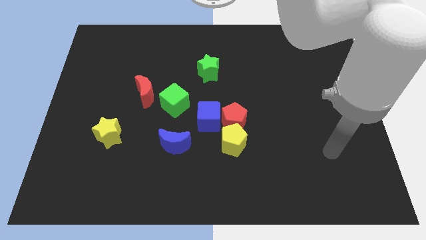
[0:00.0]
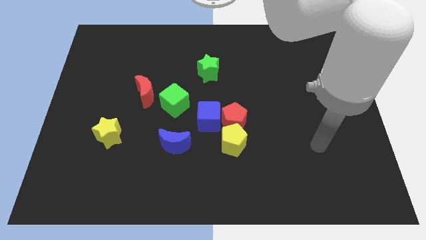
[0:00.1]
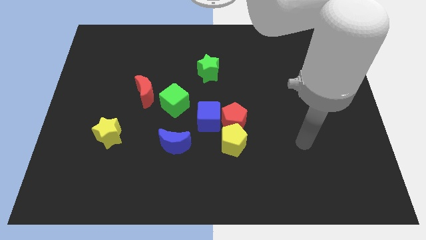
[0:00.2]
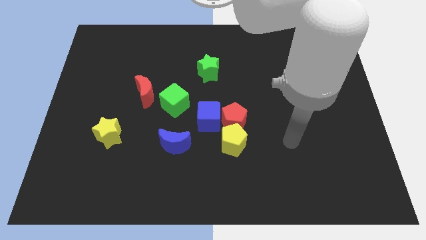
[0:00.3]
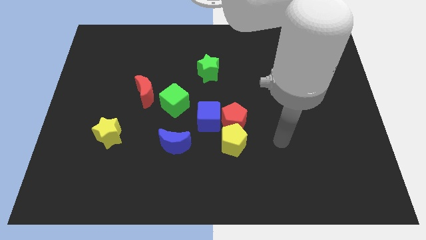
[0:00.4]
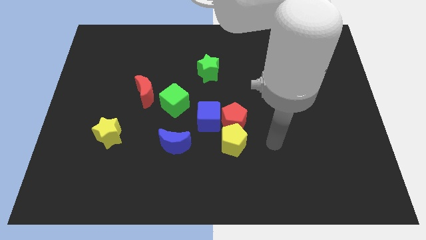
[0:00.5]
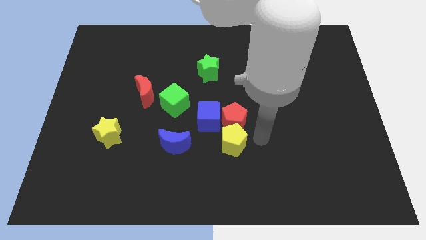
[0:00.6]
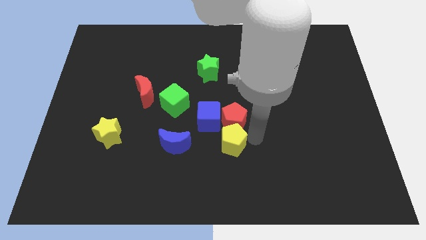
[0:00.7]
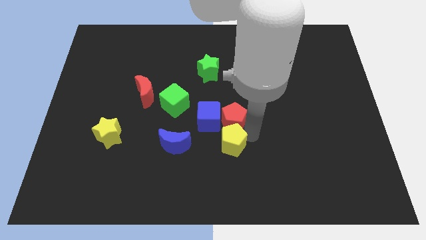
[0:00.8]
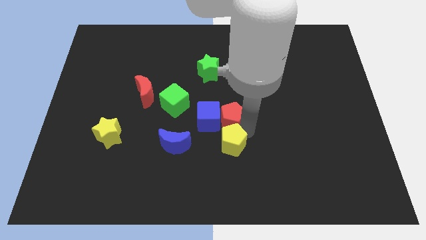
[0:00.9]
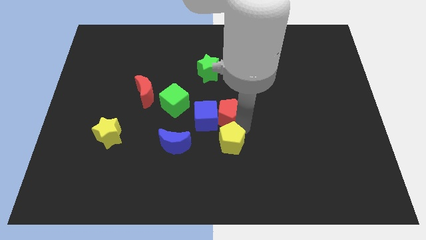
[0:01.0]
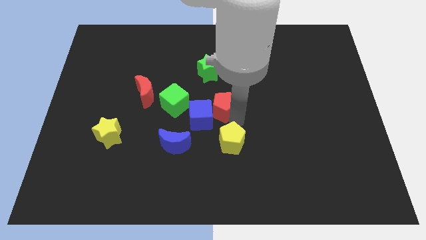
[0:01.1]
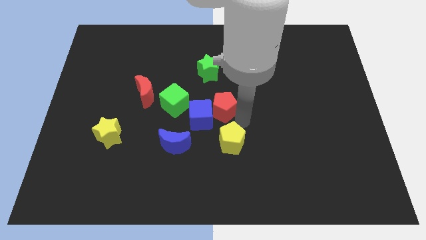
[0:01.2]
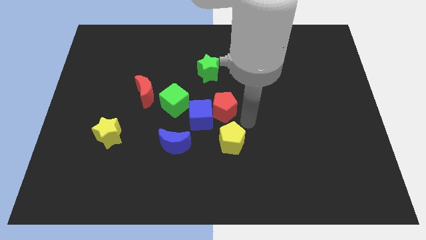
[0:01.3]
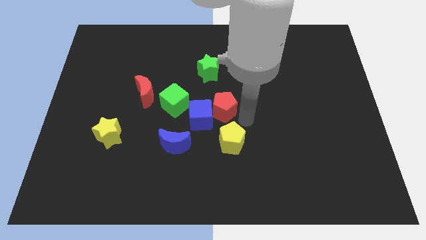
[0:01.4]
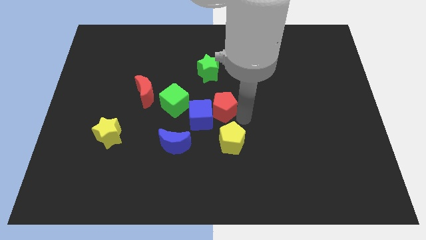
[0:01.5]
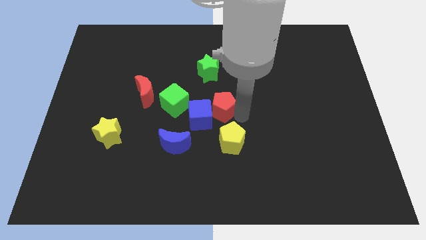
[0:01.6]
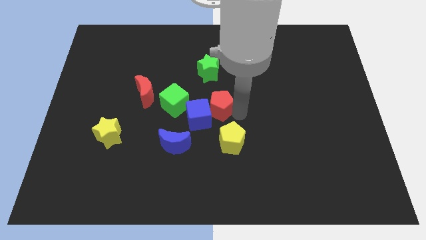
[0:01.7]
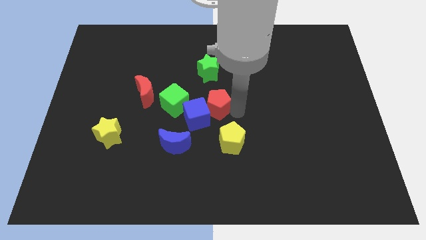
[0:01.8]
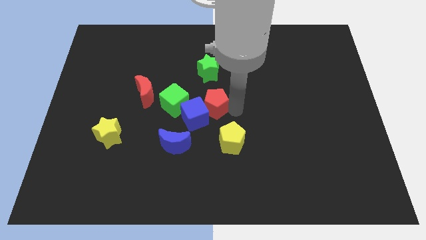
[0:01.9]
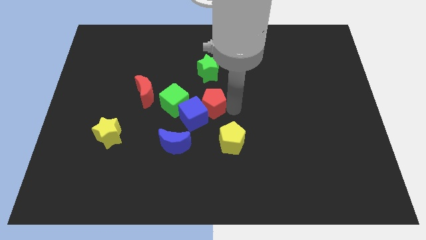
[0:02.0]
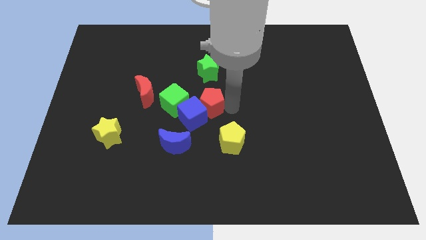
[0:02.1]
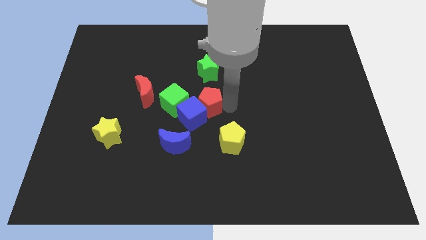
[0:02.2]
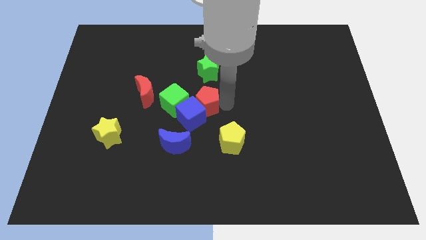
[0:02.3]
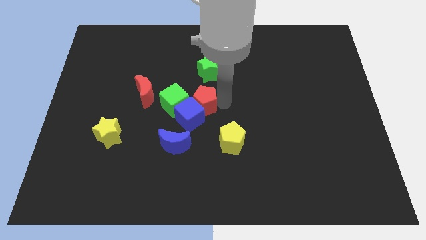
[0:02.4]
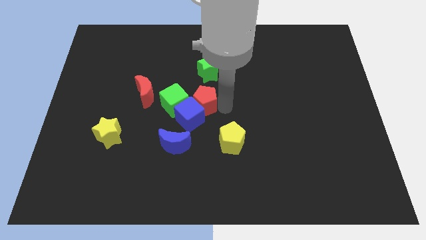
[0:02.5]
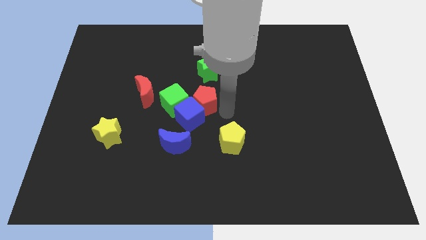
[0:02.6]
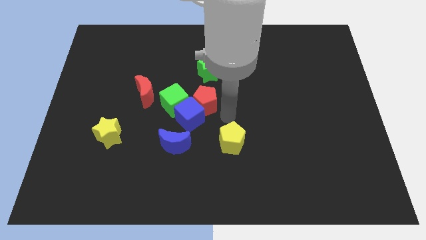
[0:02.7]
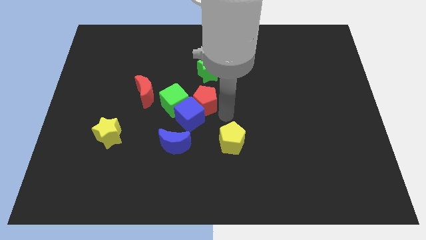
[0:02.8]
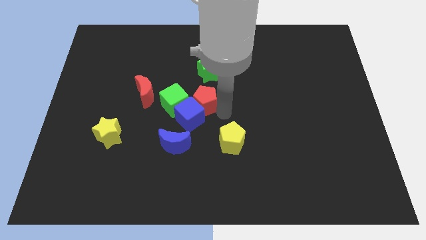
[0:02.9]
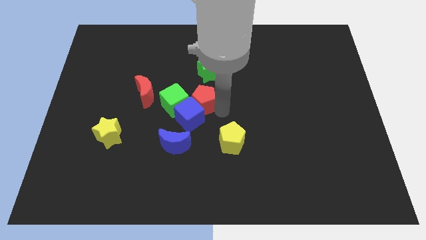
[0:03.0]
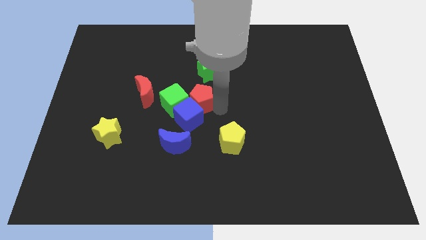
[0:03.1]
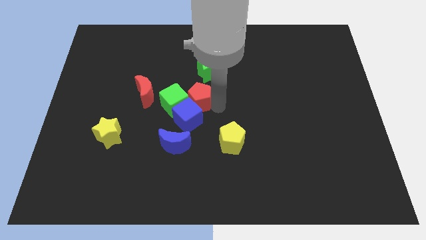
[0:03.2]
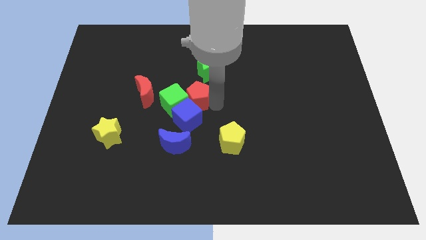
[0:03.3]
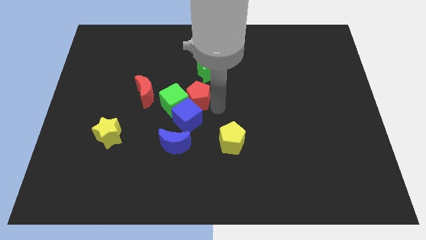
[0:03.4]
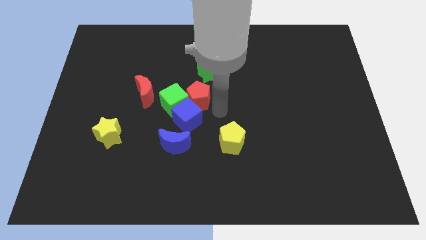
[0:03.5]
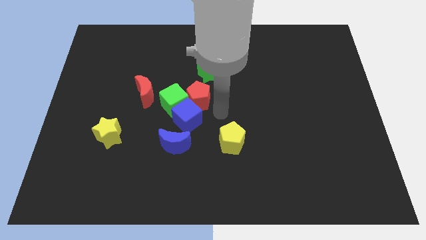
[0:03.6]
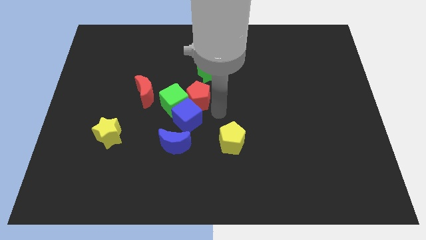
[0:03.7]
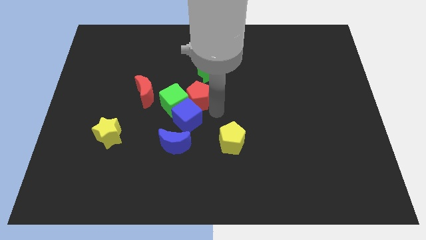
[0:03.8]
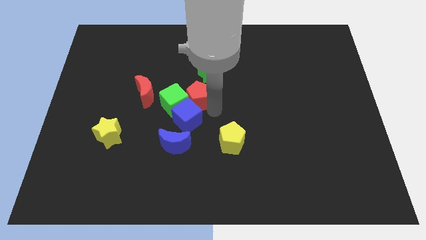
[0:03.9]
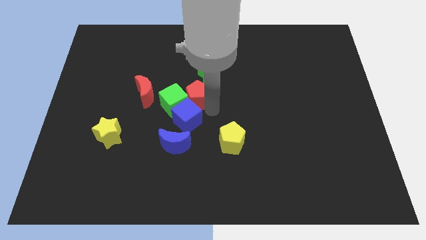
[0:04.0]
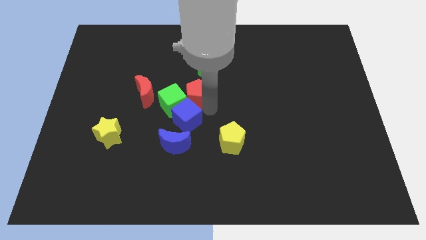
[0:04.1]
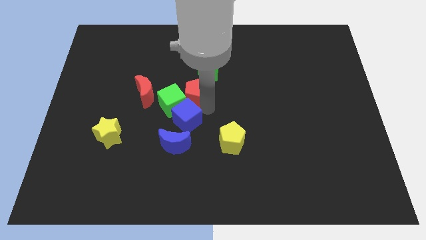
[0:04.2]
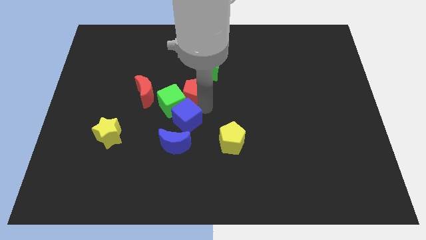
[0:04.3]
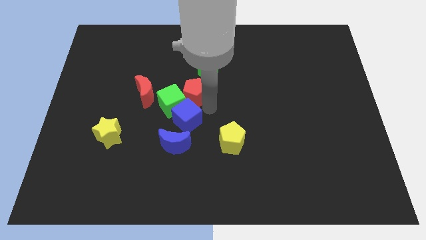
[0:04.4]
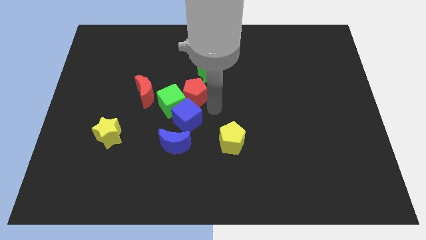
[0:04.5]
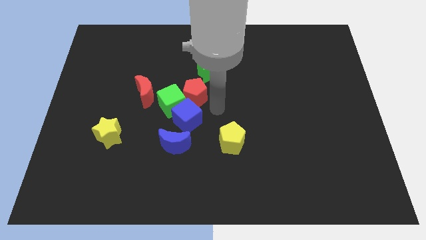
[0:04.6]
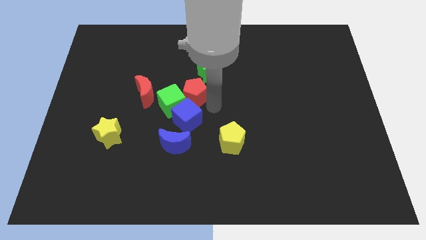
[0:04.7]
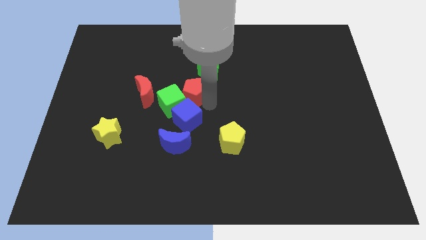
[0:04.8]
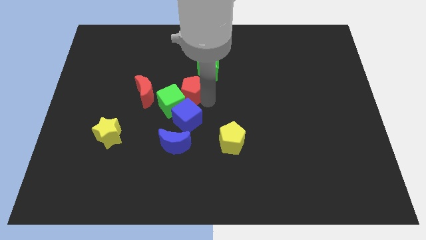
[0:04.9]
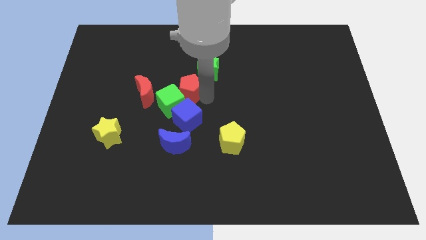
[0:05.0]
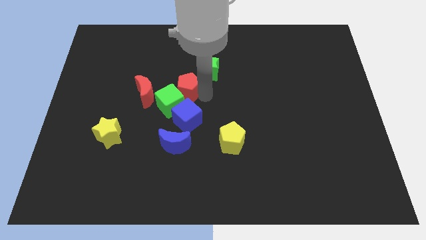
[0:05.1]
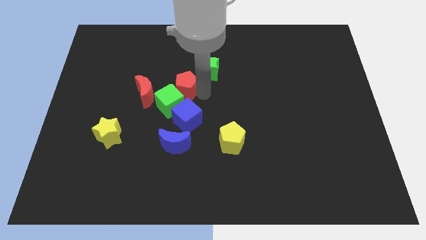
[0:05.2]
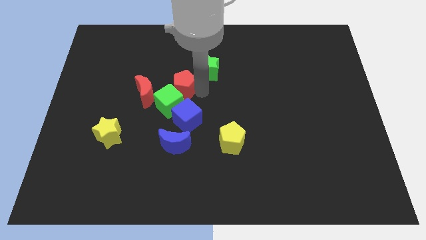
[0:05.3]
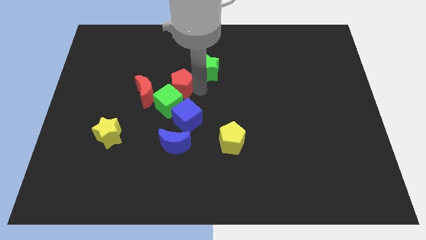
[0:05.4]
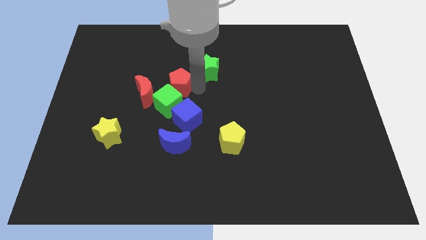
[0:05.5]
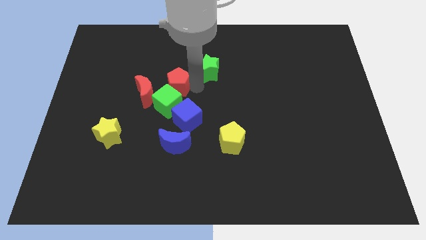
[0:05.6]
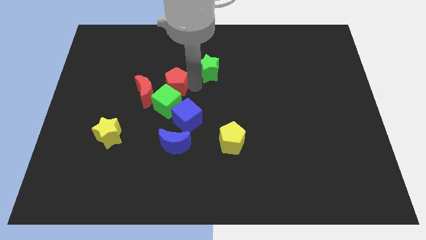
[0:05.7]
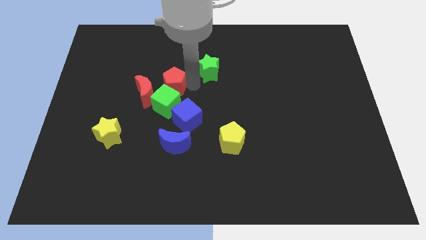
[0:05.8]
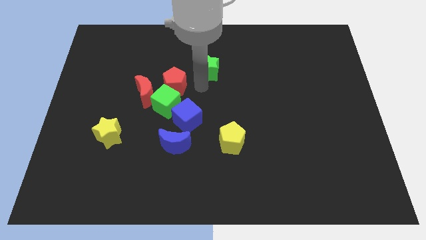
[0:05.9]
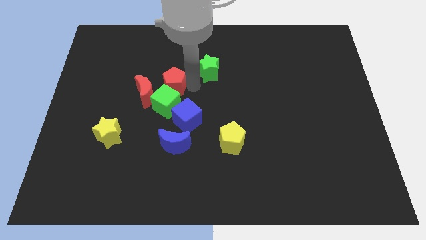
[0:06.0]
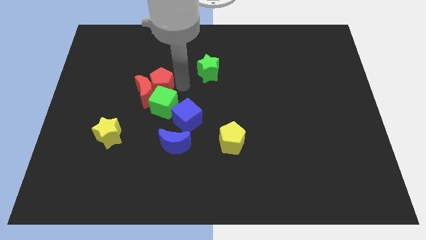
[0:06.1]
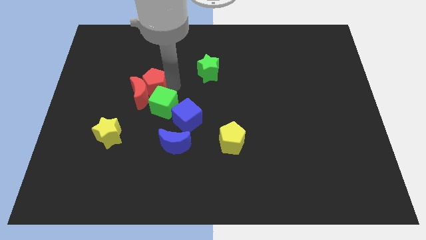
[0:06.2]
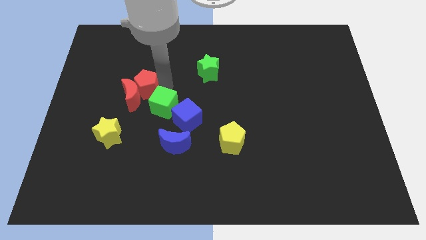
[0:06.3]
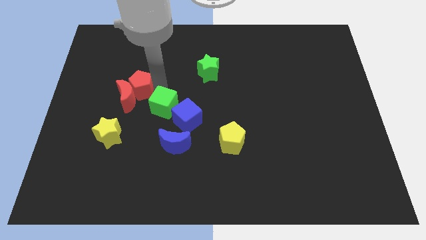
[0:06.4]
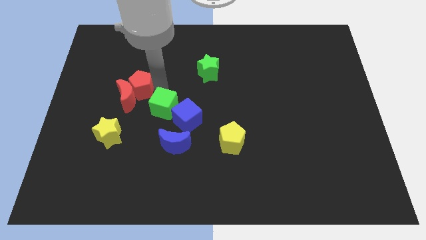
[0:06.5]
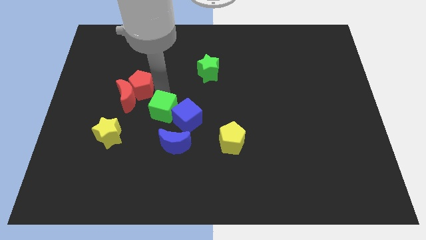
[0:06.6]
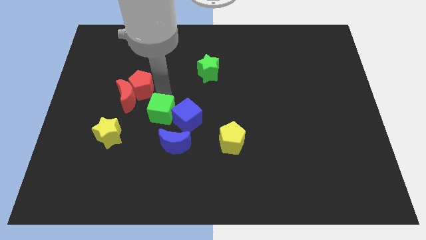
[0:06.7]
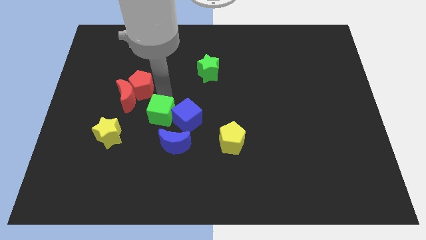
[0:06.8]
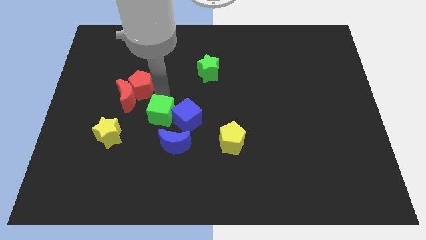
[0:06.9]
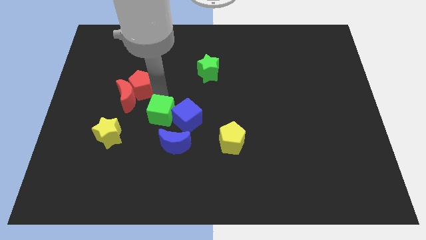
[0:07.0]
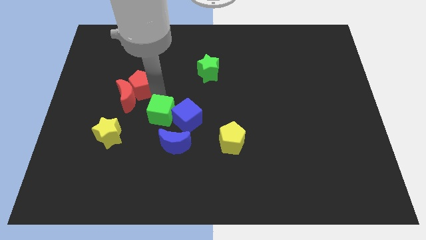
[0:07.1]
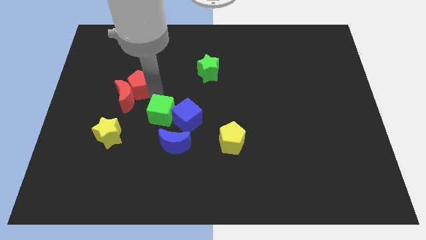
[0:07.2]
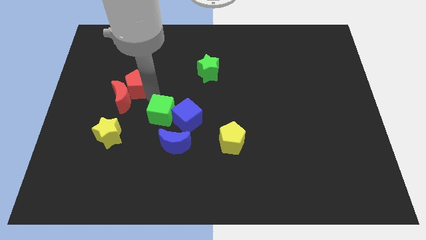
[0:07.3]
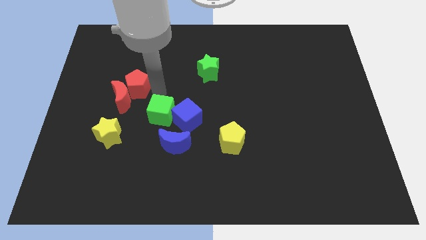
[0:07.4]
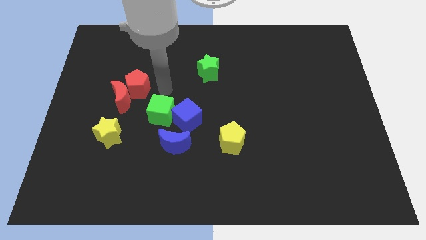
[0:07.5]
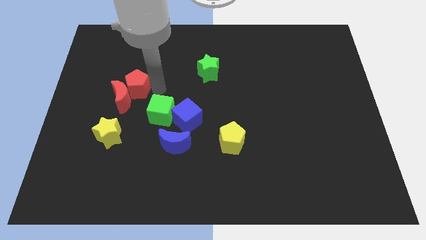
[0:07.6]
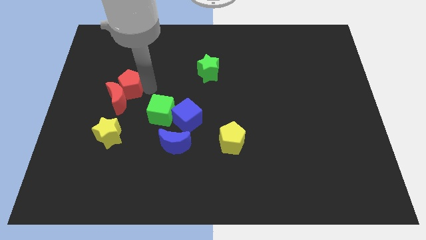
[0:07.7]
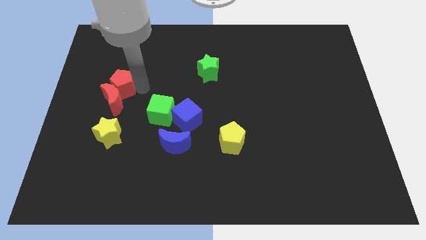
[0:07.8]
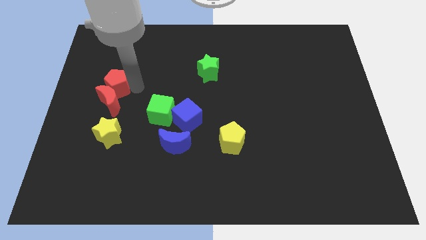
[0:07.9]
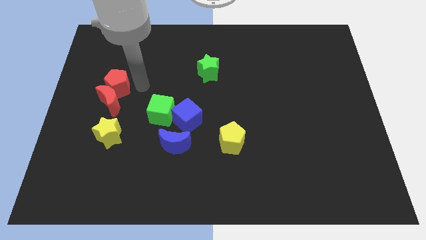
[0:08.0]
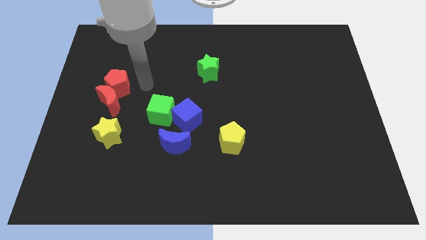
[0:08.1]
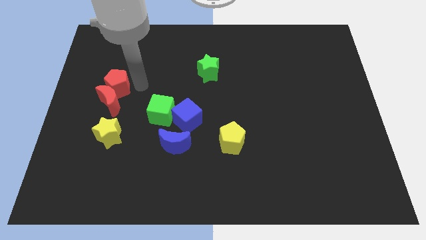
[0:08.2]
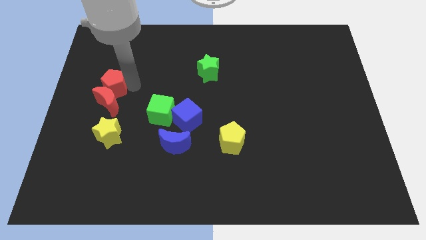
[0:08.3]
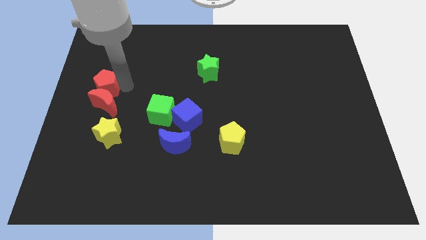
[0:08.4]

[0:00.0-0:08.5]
move the red pentagon to the left side
